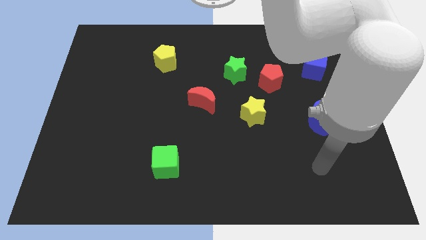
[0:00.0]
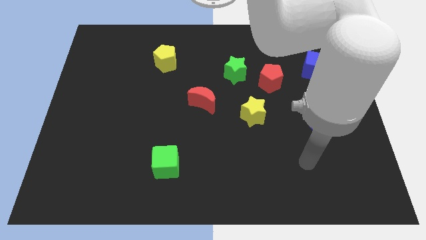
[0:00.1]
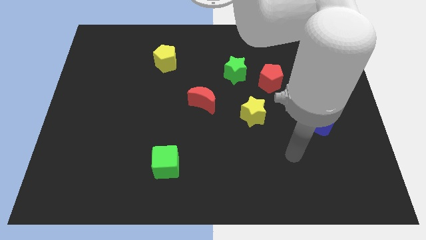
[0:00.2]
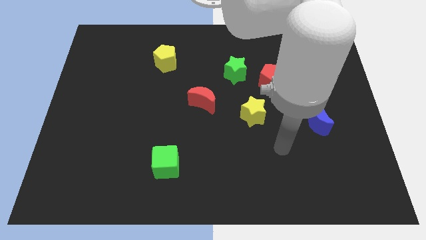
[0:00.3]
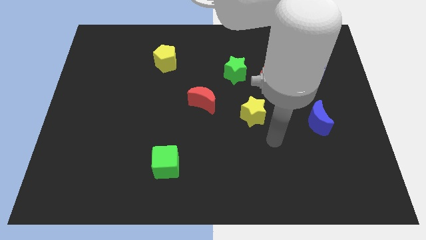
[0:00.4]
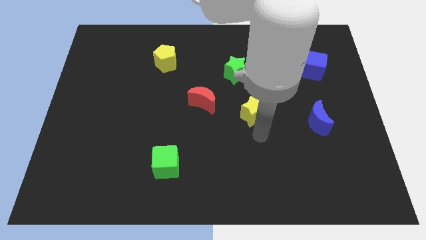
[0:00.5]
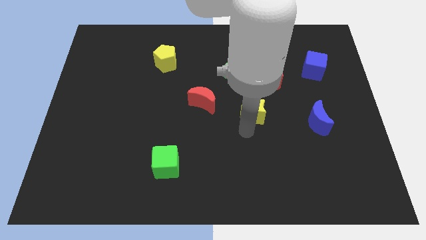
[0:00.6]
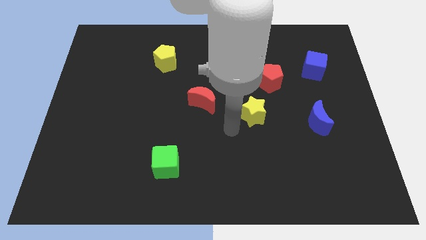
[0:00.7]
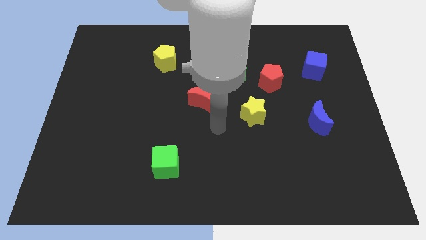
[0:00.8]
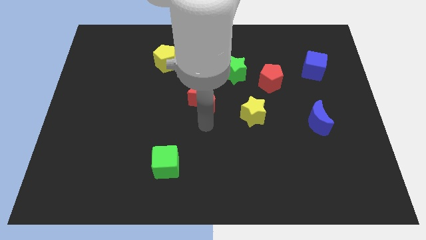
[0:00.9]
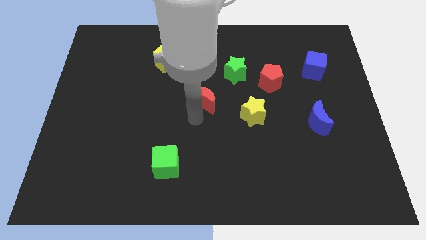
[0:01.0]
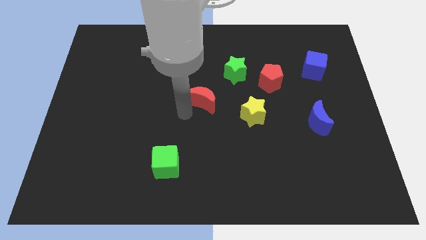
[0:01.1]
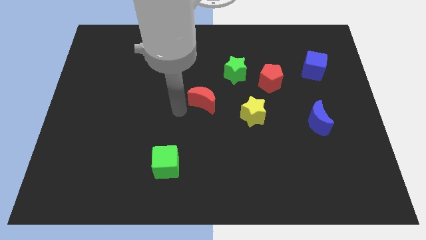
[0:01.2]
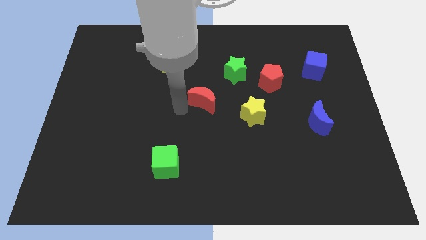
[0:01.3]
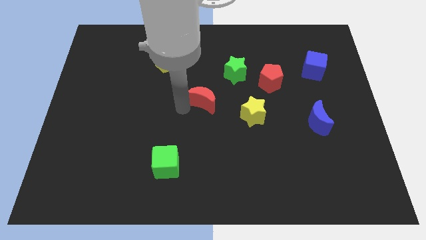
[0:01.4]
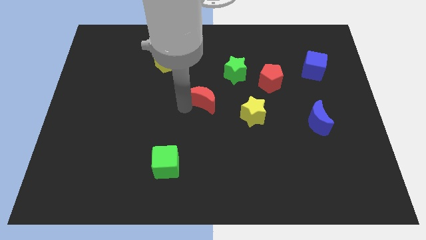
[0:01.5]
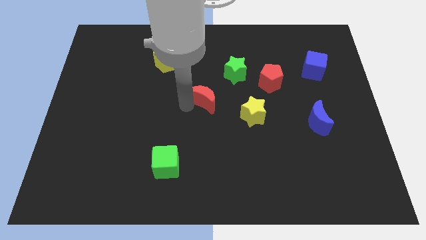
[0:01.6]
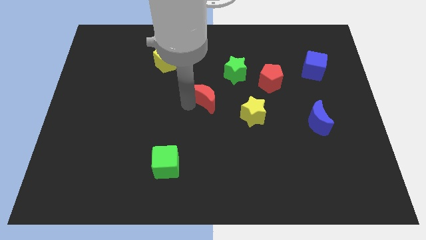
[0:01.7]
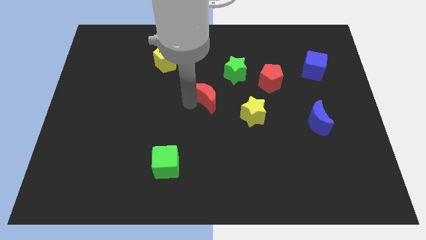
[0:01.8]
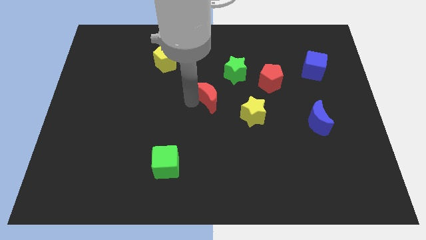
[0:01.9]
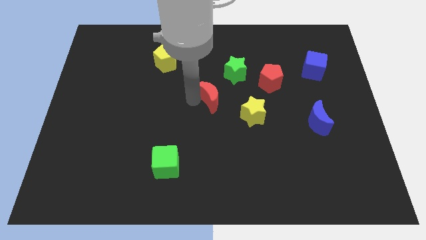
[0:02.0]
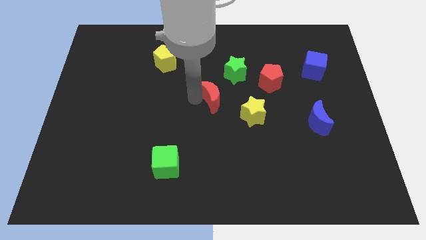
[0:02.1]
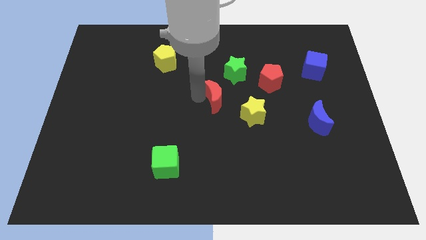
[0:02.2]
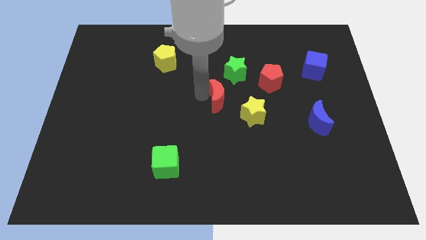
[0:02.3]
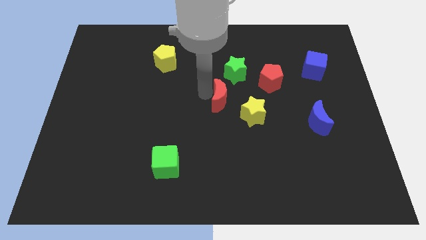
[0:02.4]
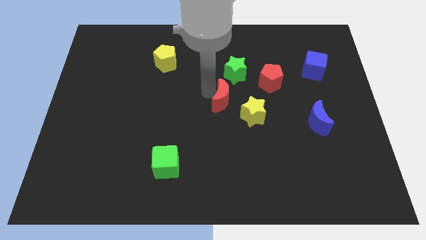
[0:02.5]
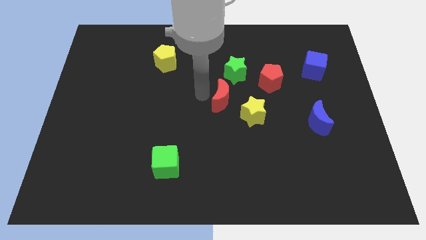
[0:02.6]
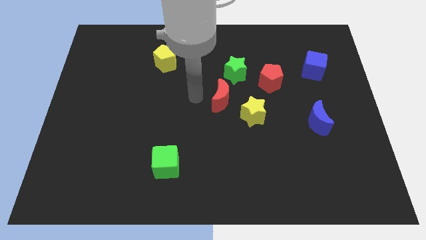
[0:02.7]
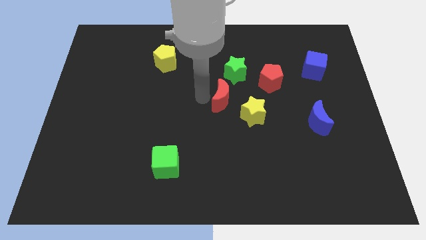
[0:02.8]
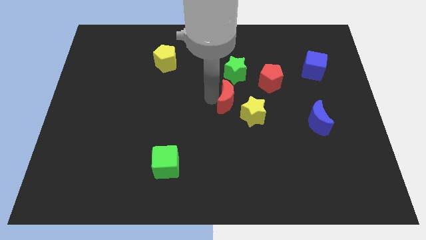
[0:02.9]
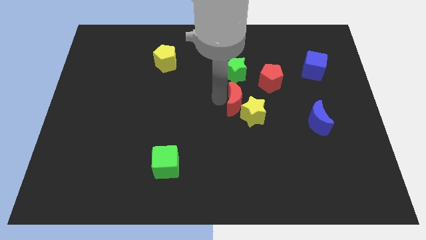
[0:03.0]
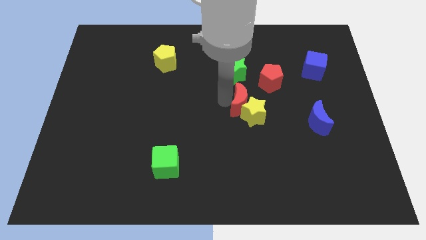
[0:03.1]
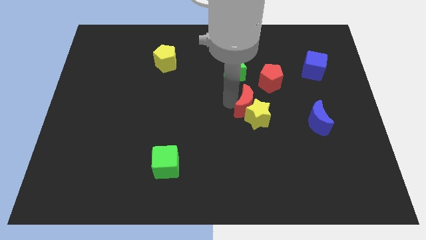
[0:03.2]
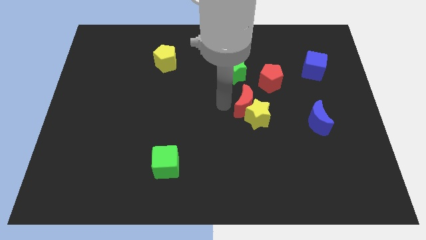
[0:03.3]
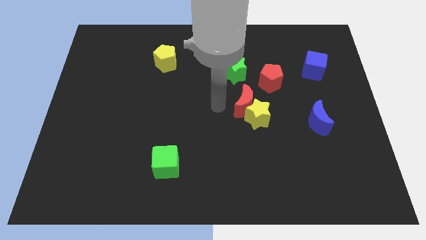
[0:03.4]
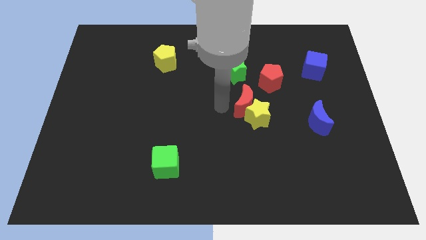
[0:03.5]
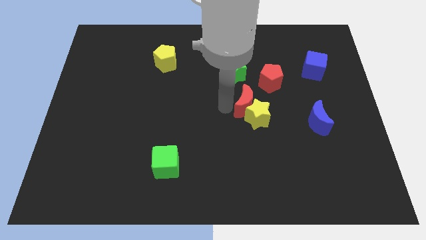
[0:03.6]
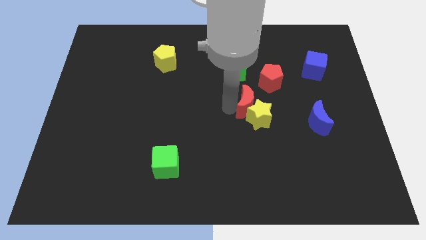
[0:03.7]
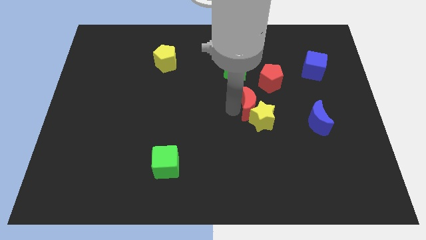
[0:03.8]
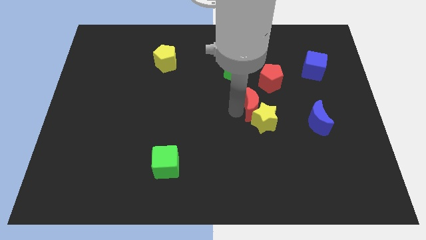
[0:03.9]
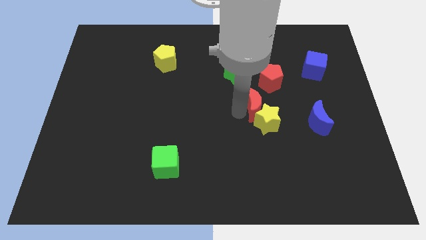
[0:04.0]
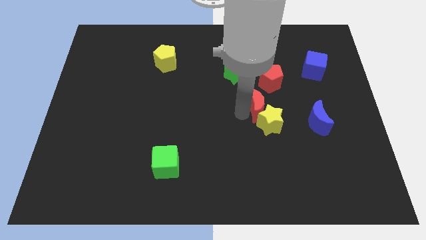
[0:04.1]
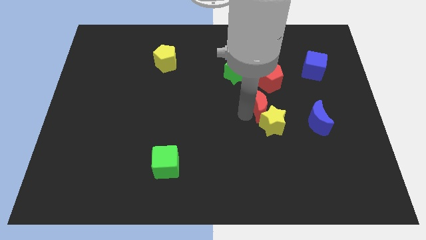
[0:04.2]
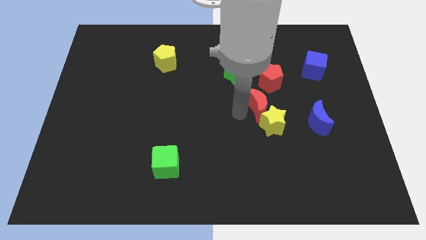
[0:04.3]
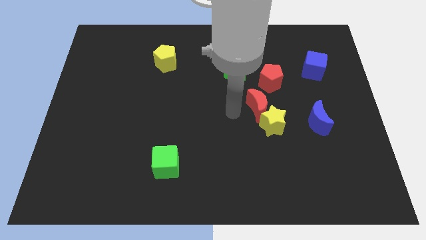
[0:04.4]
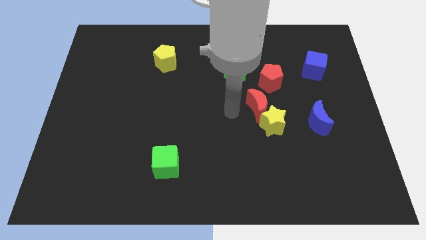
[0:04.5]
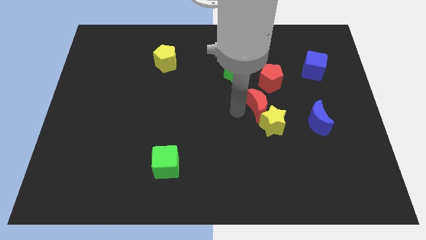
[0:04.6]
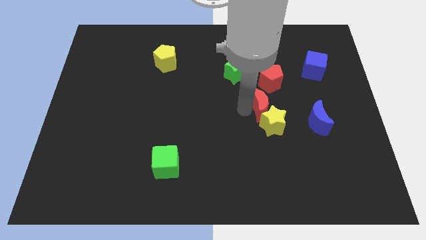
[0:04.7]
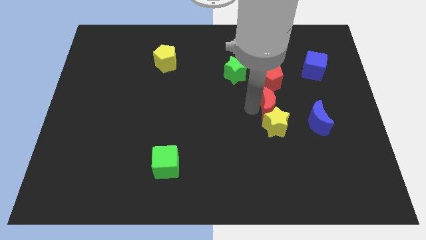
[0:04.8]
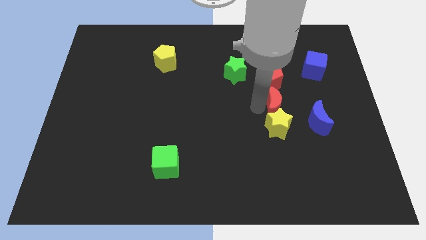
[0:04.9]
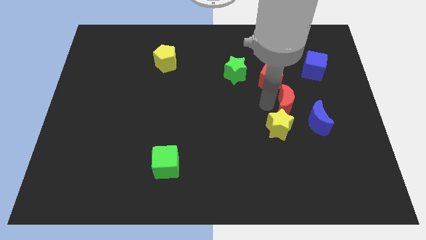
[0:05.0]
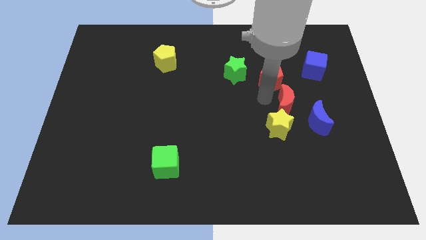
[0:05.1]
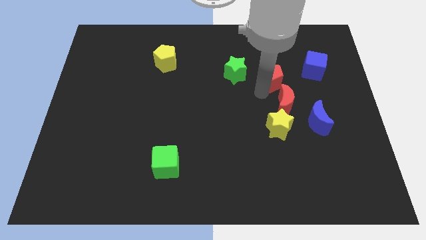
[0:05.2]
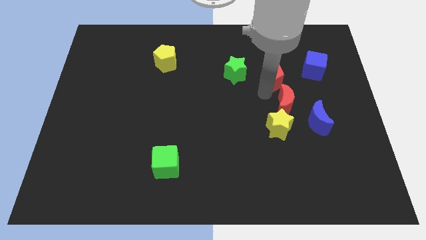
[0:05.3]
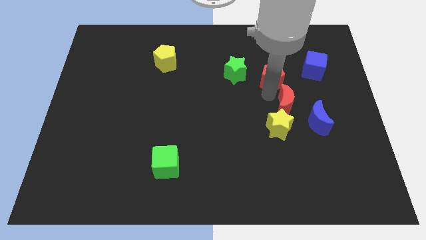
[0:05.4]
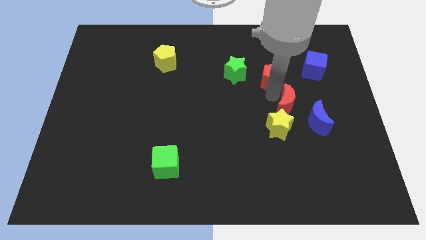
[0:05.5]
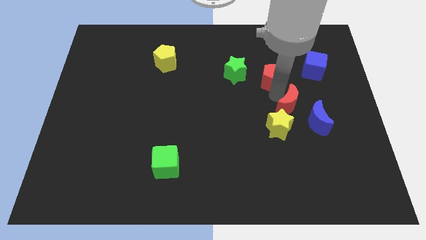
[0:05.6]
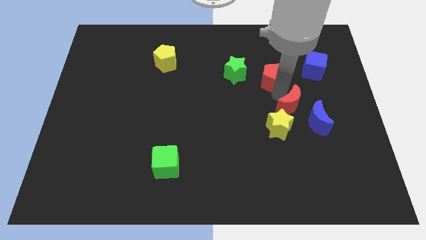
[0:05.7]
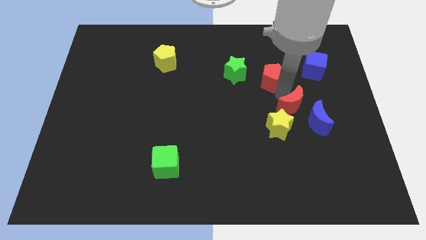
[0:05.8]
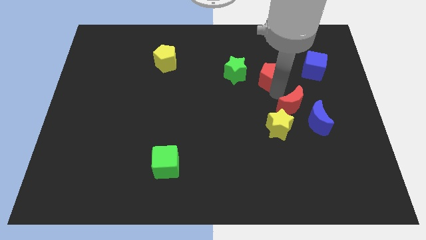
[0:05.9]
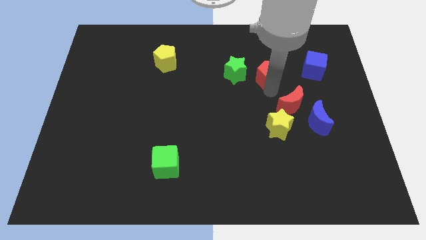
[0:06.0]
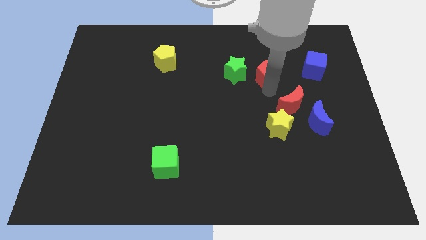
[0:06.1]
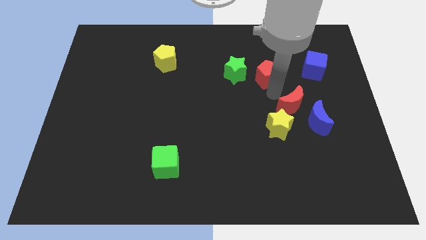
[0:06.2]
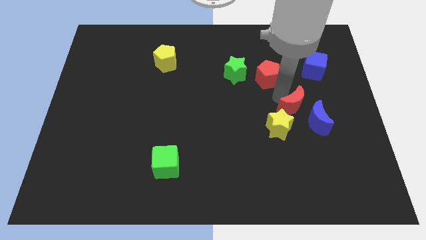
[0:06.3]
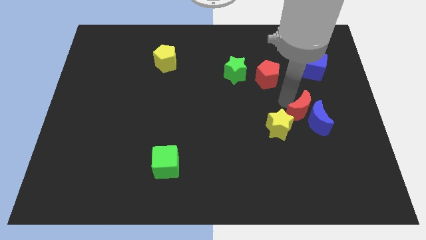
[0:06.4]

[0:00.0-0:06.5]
push the red moon next to the blue moon

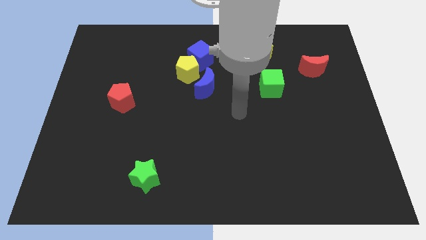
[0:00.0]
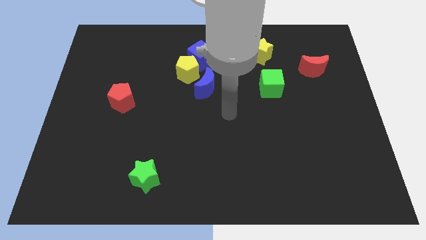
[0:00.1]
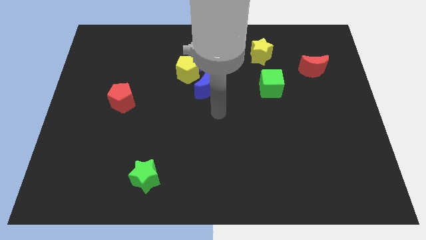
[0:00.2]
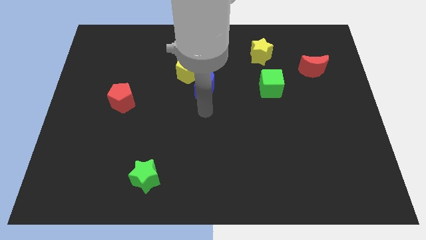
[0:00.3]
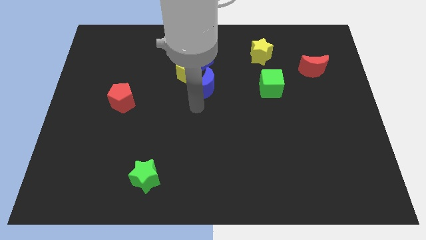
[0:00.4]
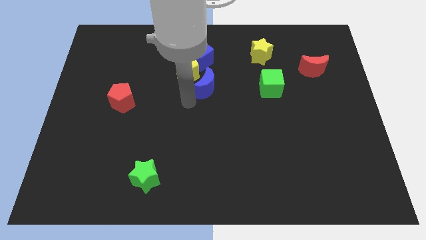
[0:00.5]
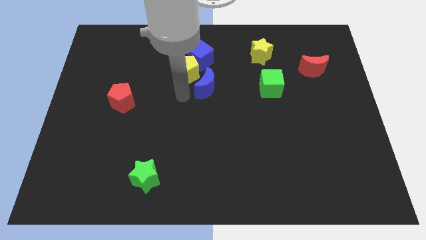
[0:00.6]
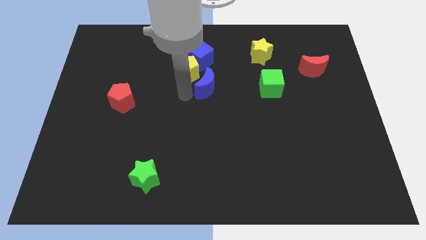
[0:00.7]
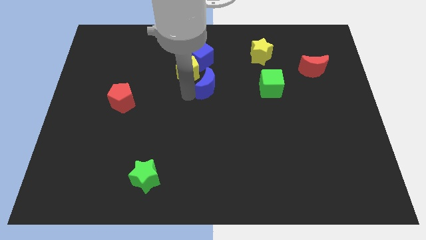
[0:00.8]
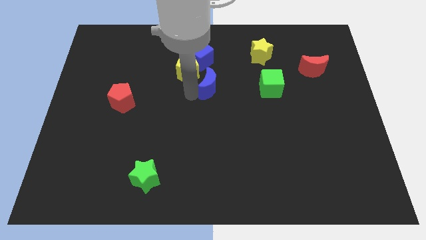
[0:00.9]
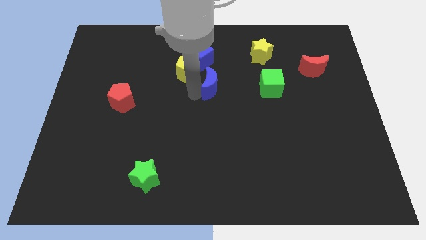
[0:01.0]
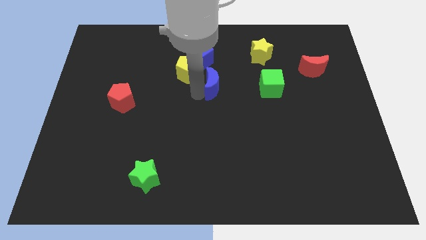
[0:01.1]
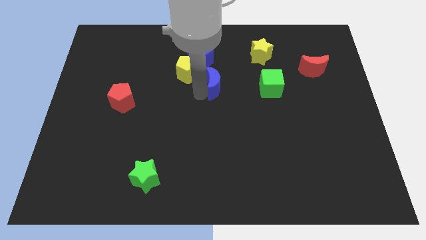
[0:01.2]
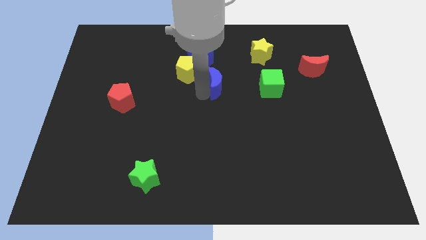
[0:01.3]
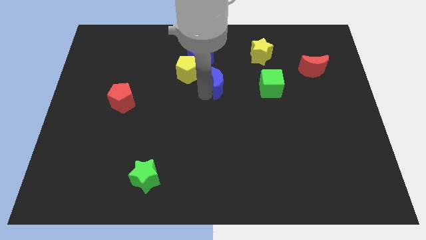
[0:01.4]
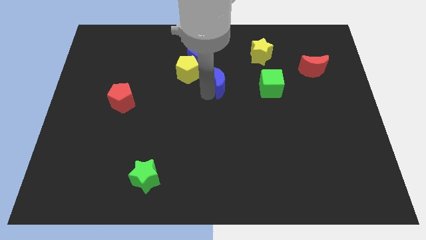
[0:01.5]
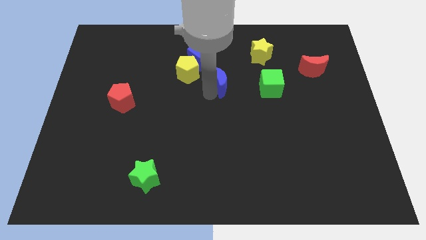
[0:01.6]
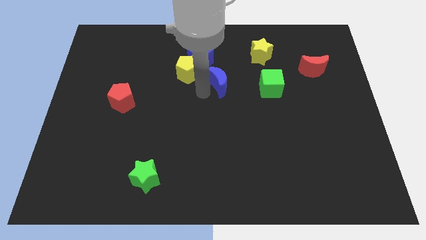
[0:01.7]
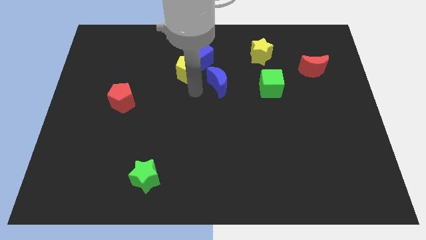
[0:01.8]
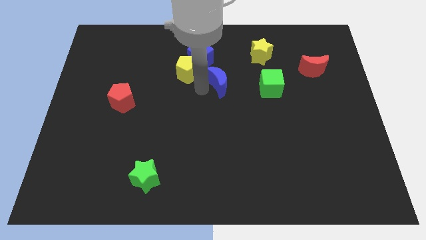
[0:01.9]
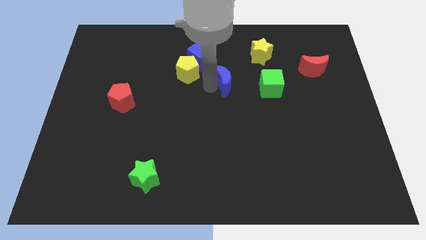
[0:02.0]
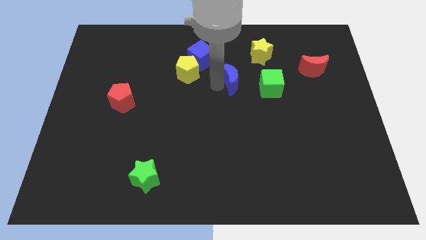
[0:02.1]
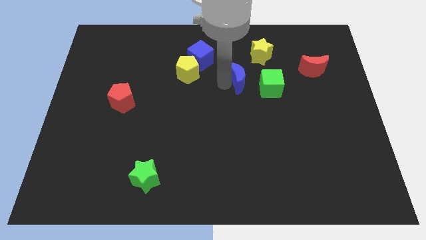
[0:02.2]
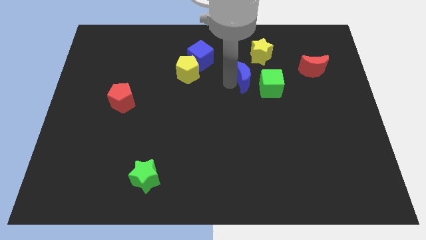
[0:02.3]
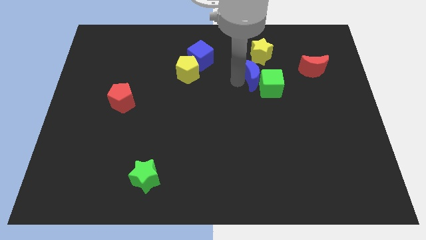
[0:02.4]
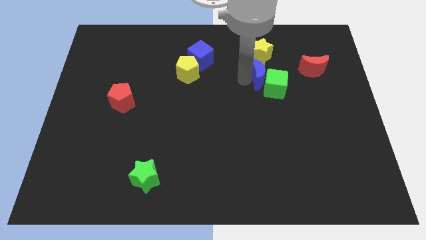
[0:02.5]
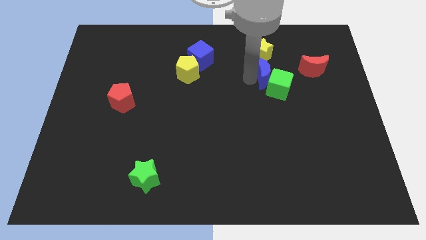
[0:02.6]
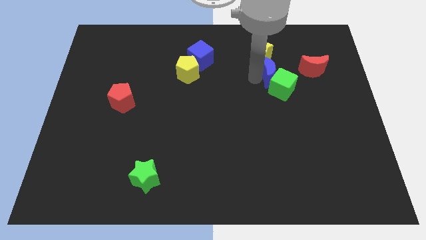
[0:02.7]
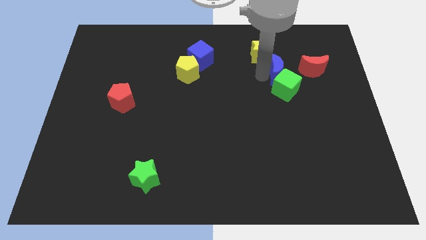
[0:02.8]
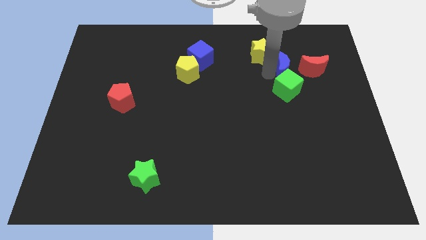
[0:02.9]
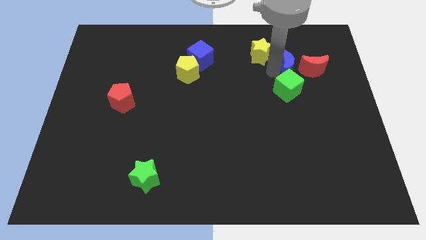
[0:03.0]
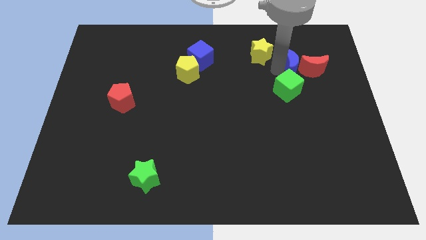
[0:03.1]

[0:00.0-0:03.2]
move the blue moon towards the red moon
